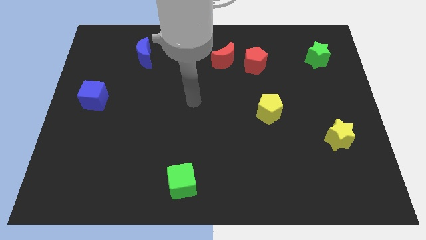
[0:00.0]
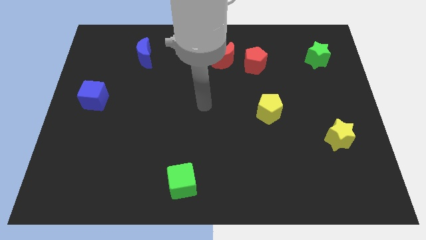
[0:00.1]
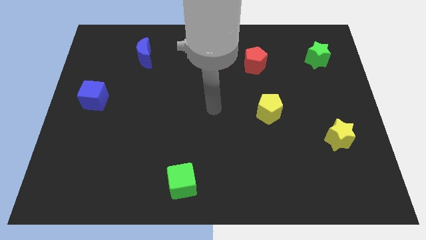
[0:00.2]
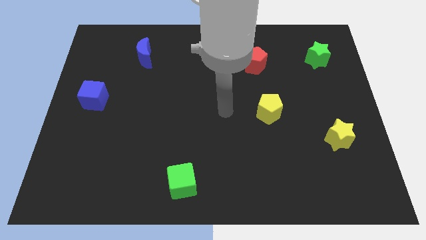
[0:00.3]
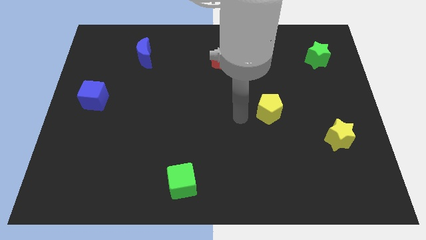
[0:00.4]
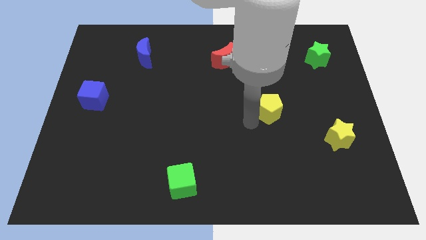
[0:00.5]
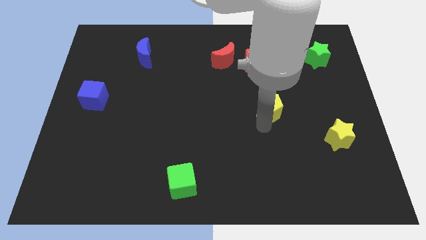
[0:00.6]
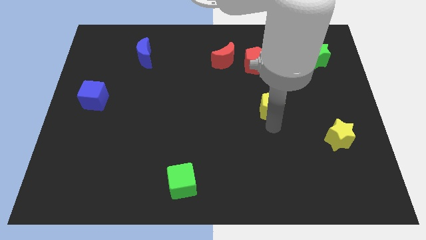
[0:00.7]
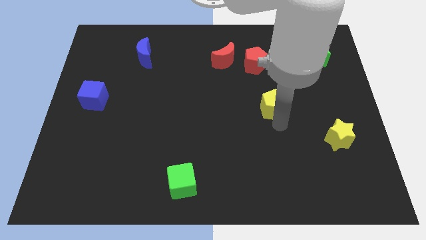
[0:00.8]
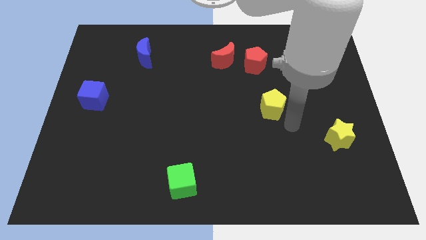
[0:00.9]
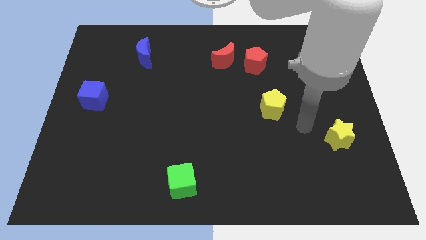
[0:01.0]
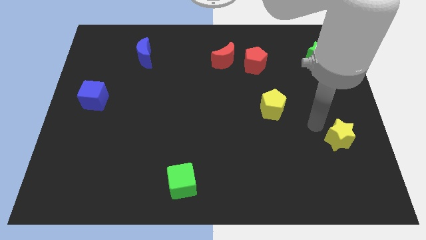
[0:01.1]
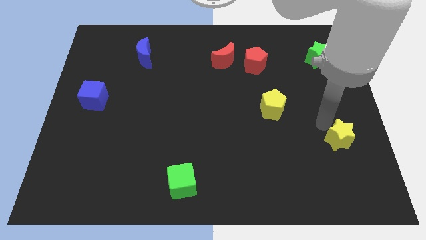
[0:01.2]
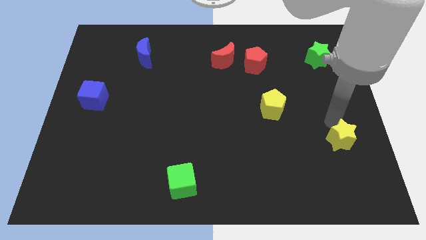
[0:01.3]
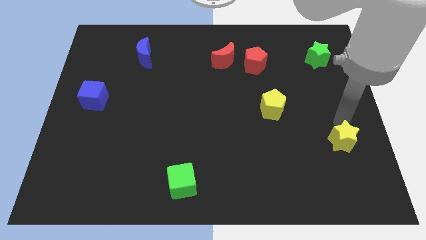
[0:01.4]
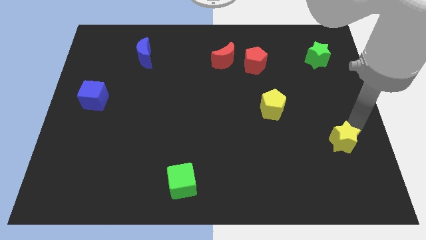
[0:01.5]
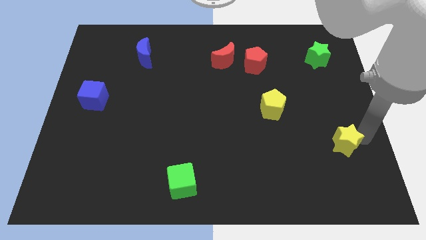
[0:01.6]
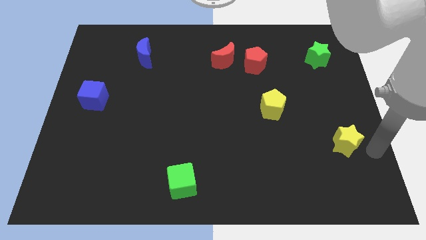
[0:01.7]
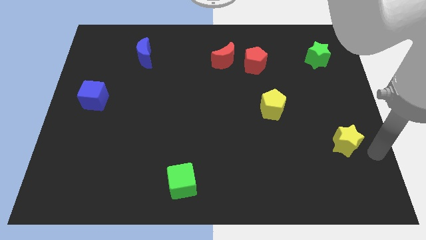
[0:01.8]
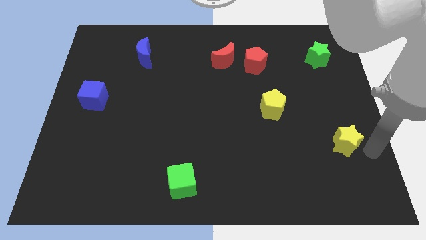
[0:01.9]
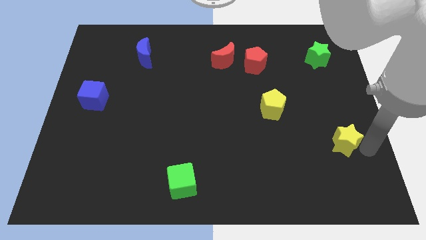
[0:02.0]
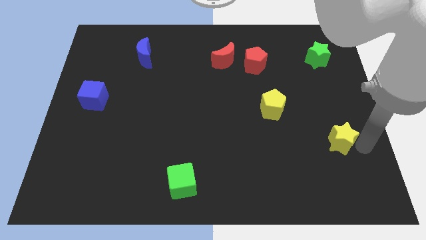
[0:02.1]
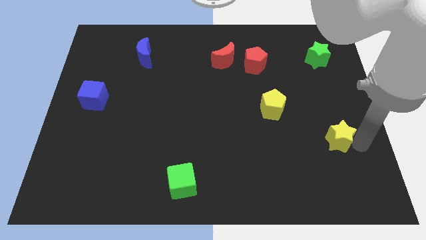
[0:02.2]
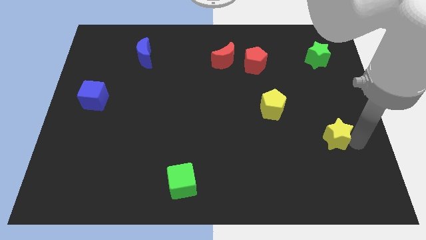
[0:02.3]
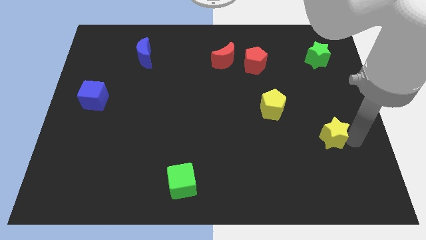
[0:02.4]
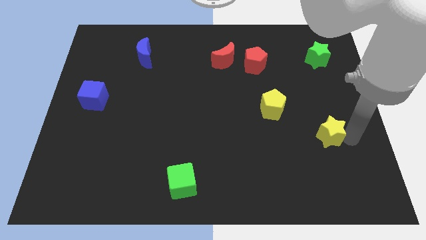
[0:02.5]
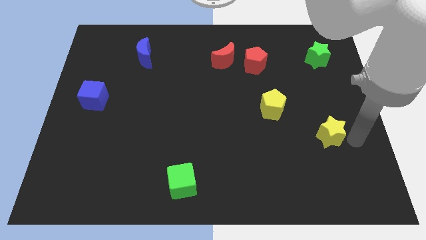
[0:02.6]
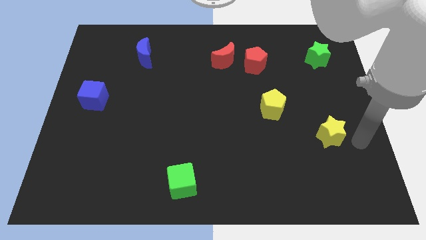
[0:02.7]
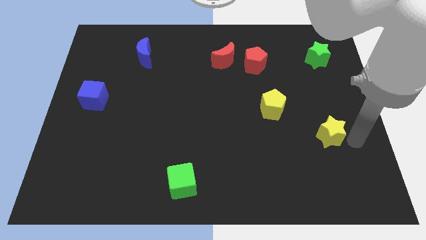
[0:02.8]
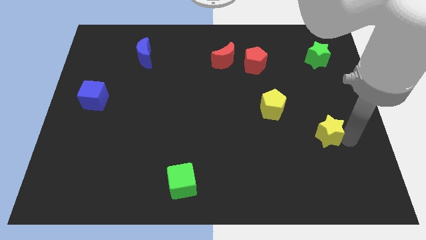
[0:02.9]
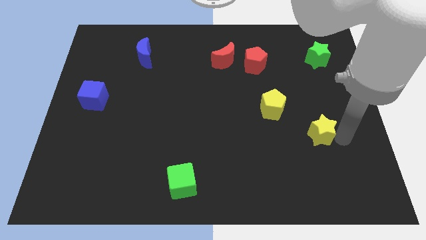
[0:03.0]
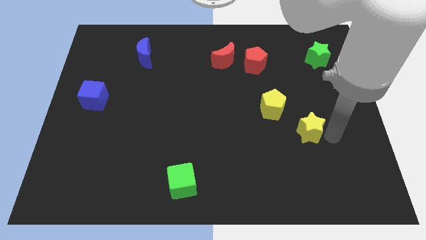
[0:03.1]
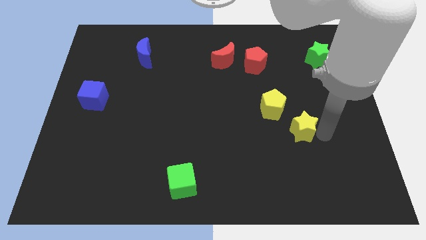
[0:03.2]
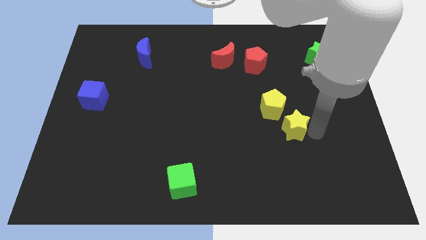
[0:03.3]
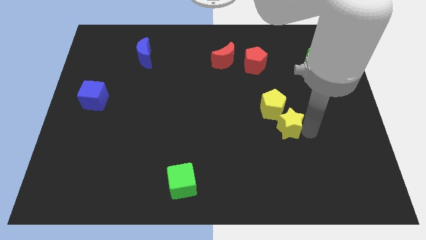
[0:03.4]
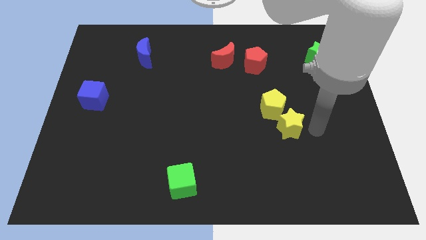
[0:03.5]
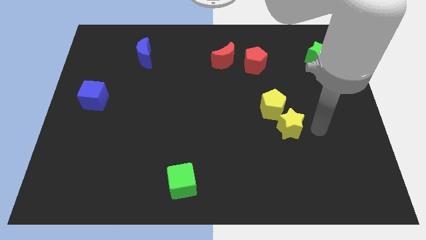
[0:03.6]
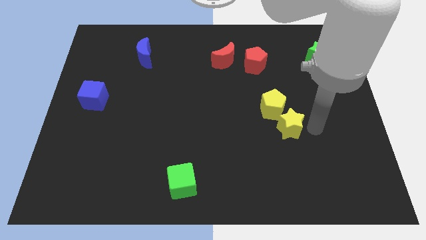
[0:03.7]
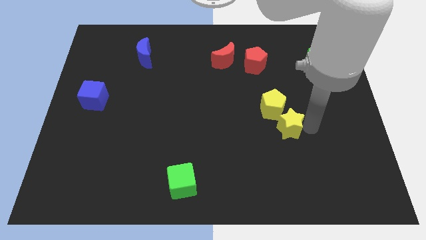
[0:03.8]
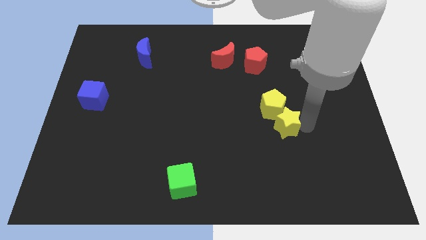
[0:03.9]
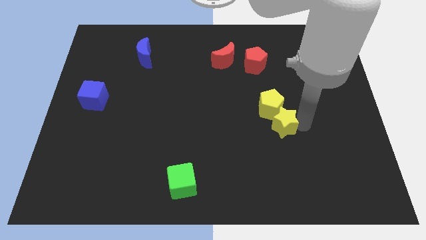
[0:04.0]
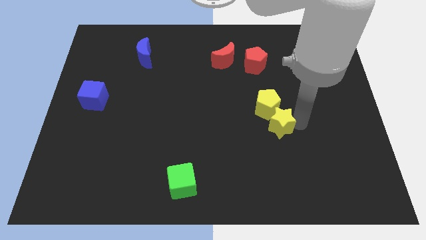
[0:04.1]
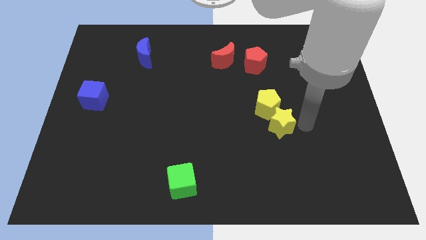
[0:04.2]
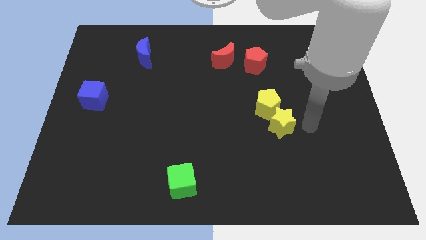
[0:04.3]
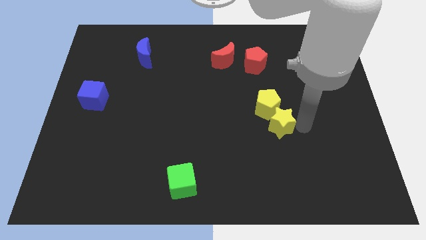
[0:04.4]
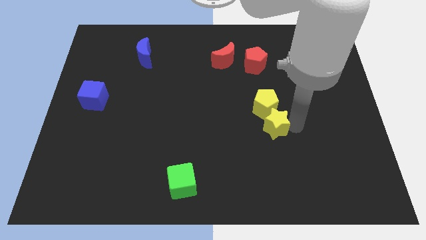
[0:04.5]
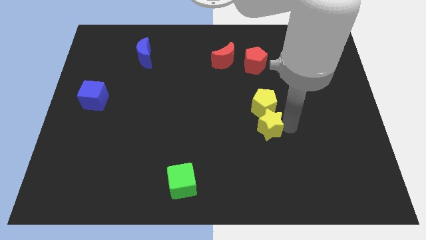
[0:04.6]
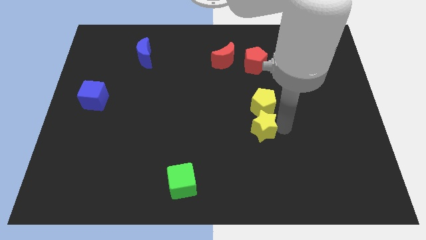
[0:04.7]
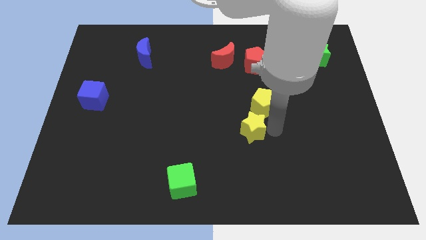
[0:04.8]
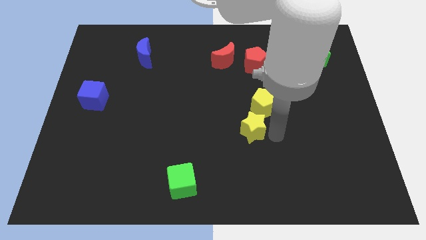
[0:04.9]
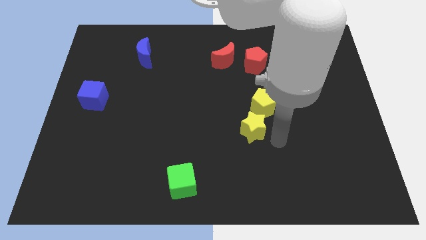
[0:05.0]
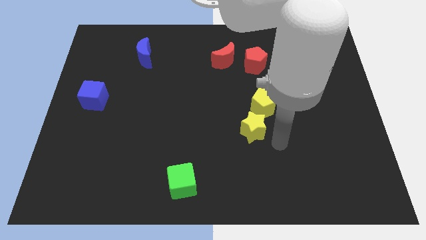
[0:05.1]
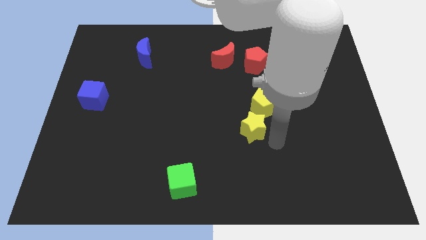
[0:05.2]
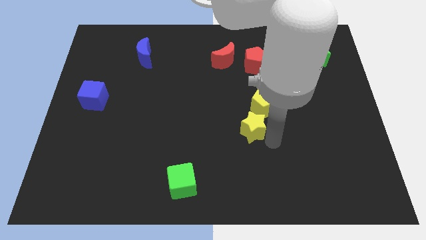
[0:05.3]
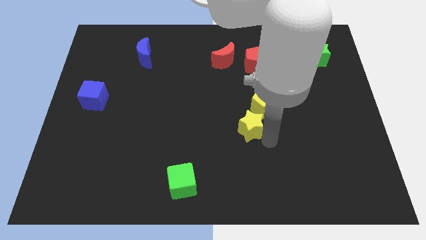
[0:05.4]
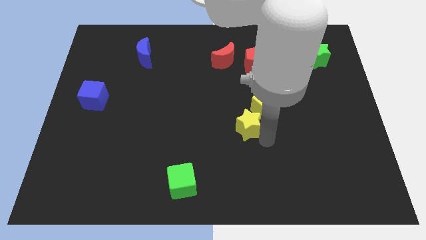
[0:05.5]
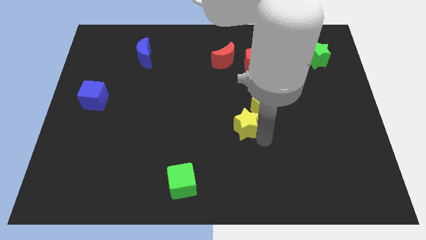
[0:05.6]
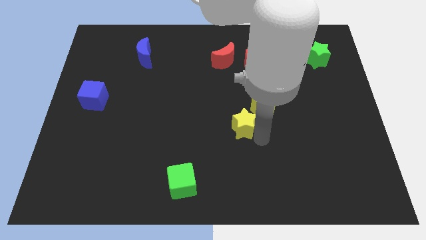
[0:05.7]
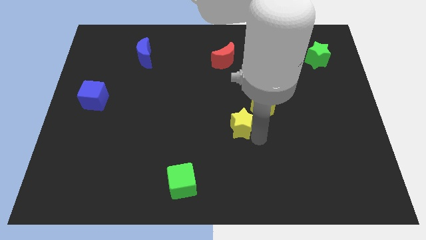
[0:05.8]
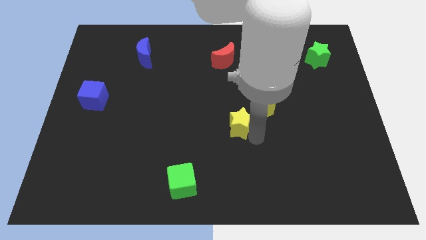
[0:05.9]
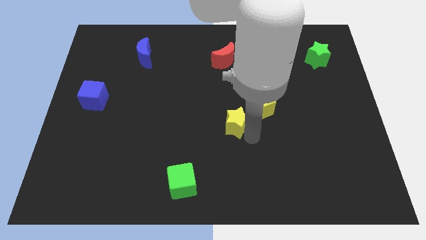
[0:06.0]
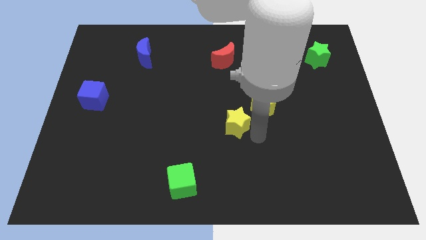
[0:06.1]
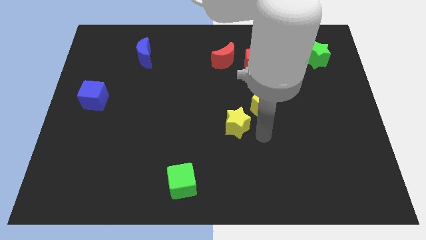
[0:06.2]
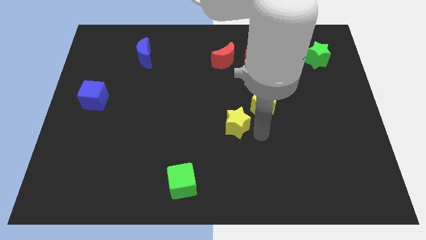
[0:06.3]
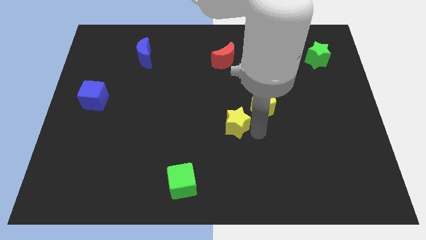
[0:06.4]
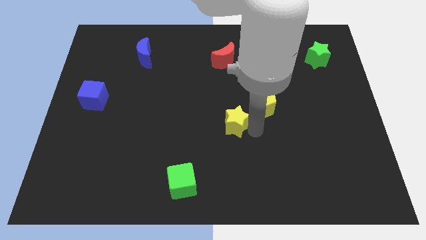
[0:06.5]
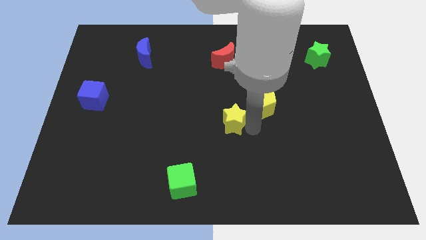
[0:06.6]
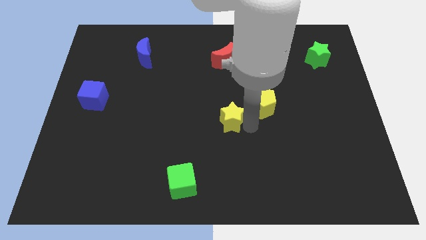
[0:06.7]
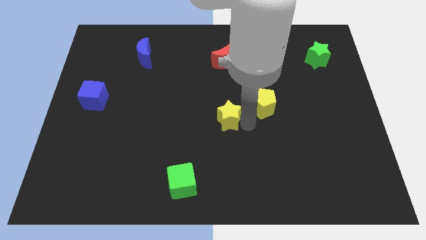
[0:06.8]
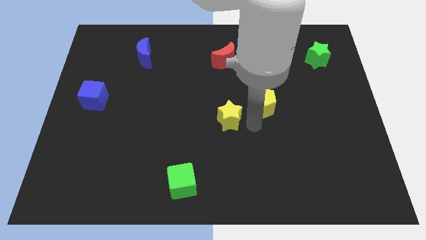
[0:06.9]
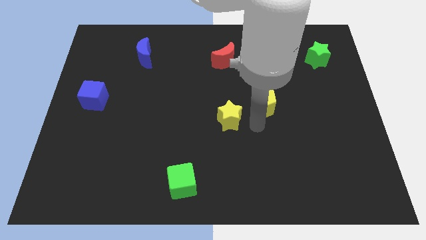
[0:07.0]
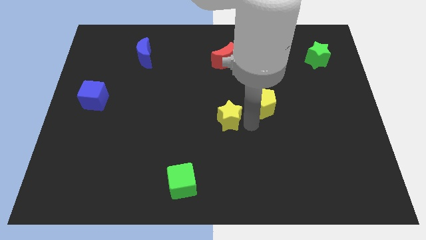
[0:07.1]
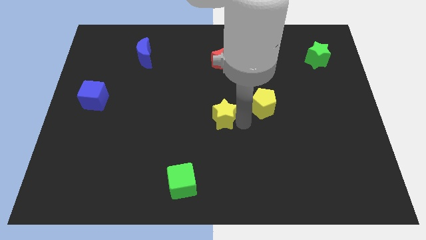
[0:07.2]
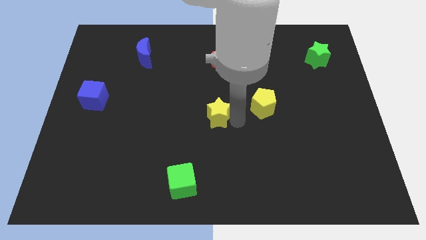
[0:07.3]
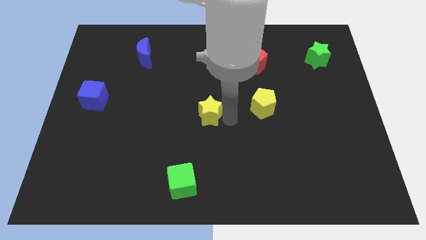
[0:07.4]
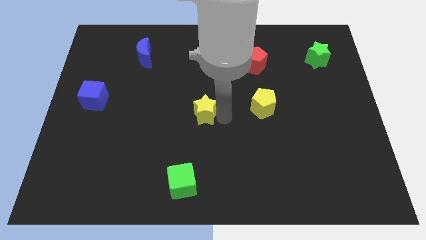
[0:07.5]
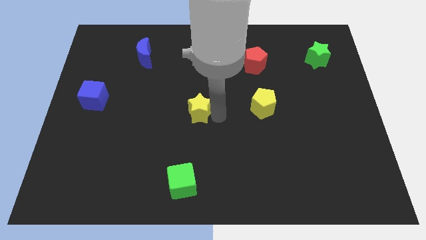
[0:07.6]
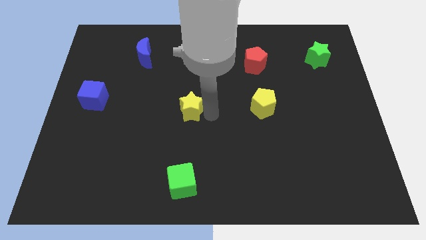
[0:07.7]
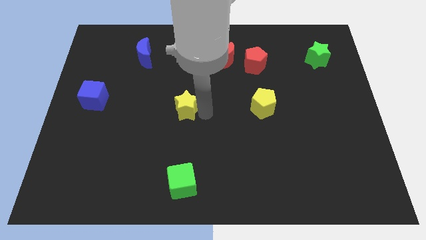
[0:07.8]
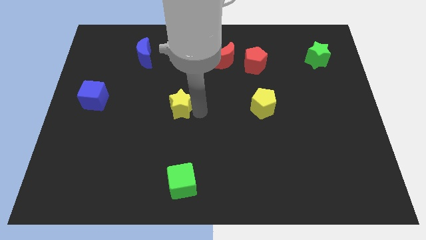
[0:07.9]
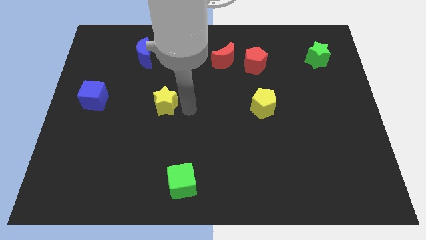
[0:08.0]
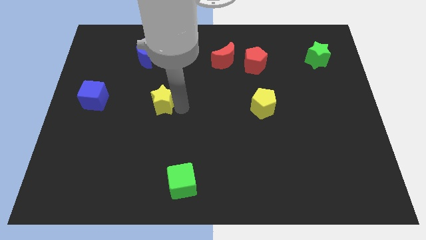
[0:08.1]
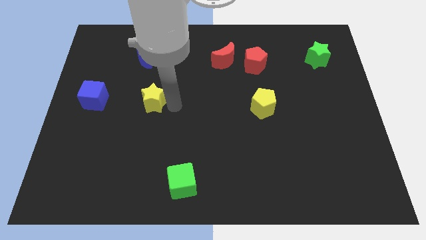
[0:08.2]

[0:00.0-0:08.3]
put the yellow star right of the blue cube

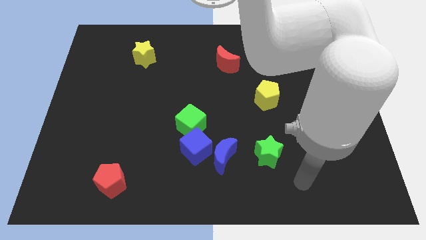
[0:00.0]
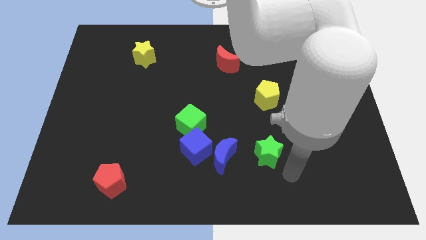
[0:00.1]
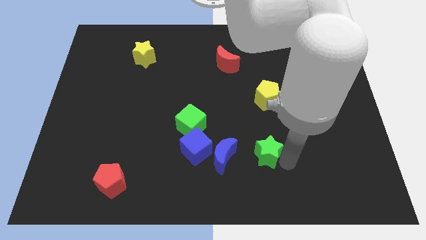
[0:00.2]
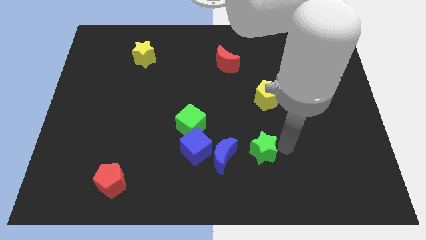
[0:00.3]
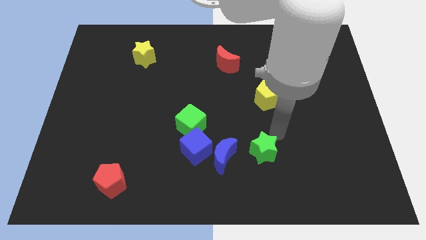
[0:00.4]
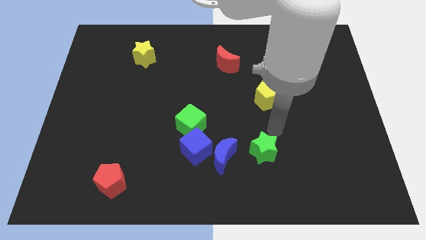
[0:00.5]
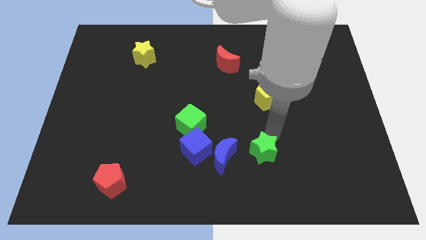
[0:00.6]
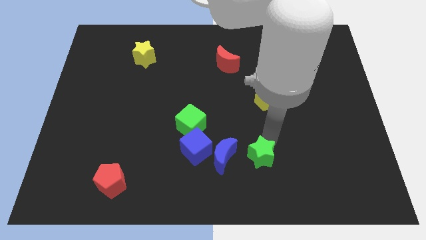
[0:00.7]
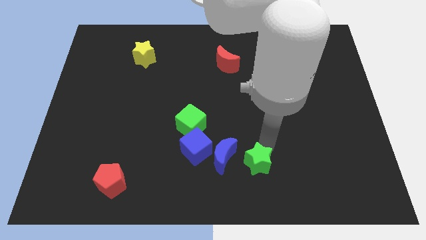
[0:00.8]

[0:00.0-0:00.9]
put the green star diagonally down and to the right of the blue moon
